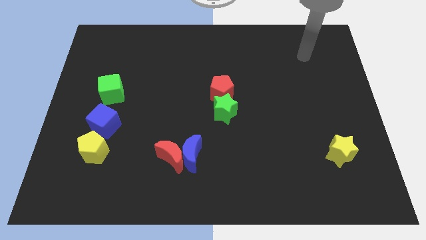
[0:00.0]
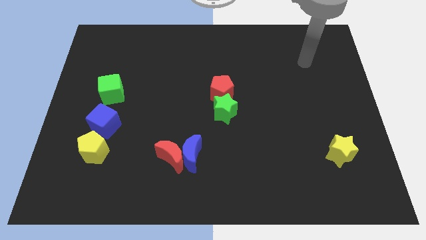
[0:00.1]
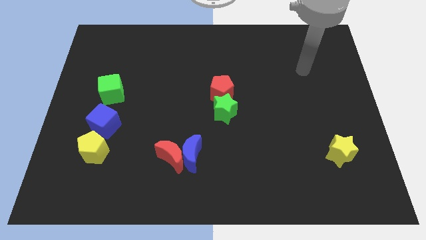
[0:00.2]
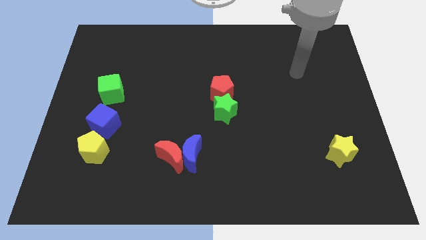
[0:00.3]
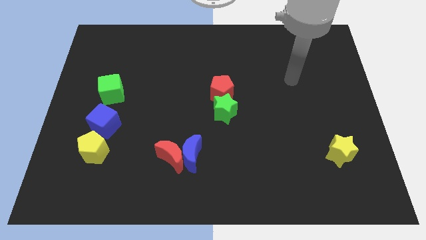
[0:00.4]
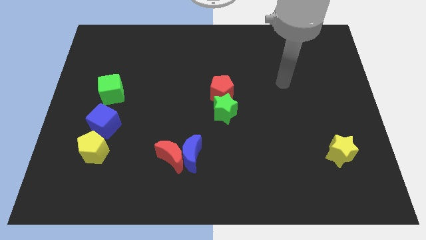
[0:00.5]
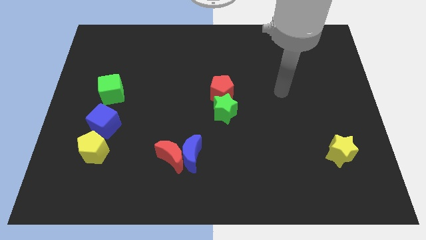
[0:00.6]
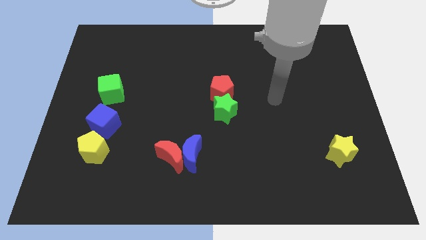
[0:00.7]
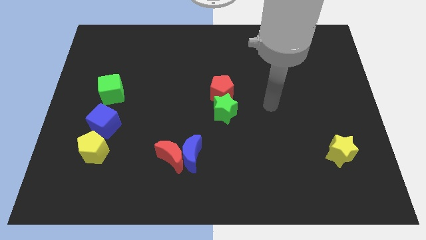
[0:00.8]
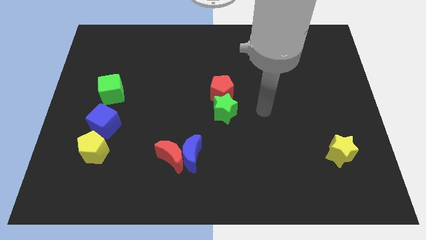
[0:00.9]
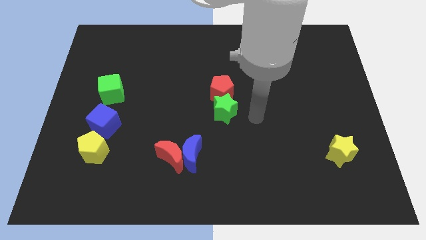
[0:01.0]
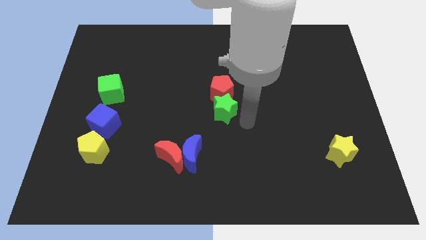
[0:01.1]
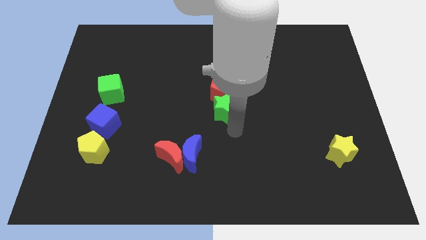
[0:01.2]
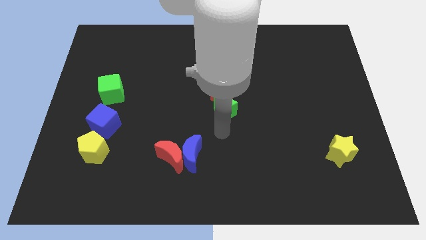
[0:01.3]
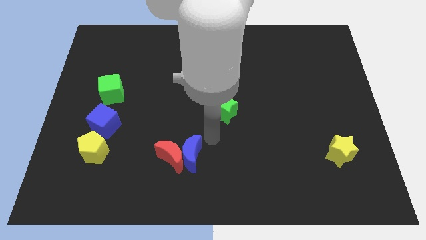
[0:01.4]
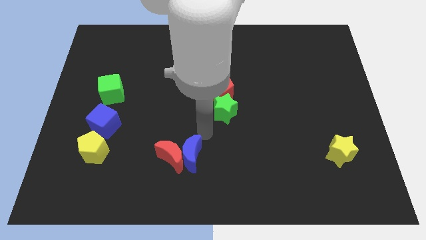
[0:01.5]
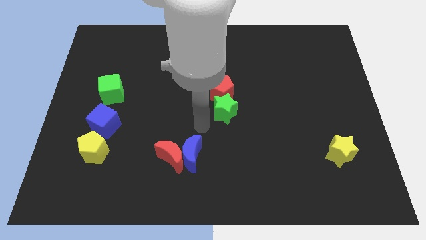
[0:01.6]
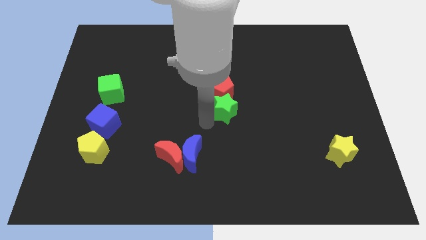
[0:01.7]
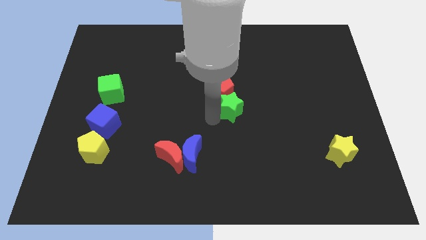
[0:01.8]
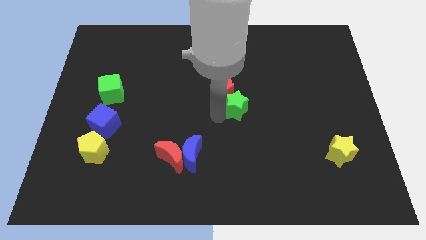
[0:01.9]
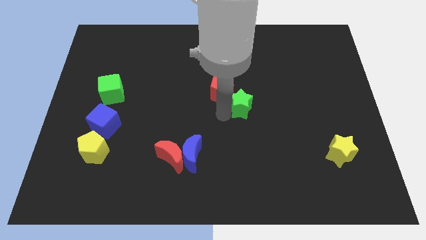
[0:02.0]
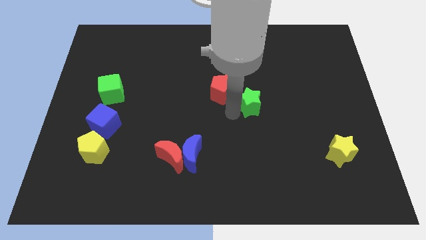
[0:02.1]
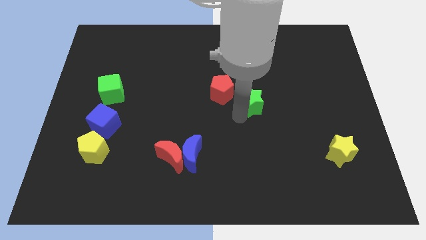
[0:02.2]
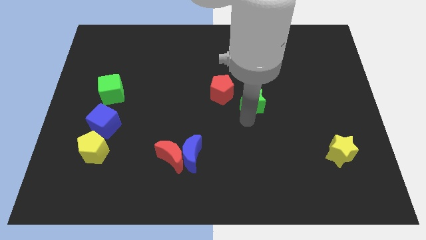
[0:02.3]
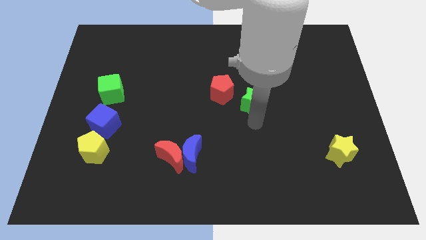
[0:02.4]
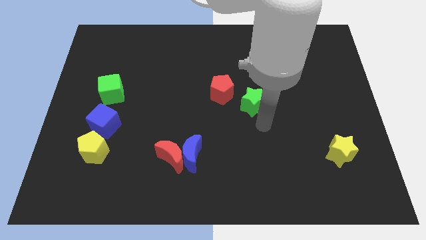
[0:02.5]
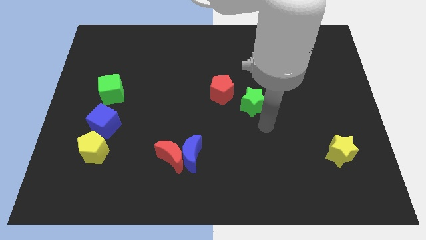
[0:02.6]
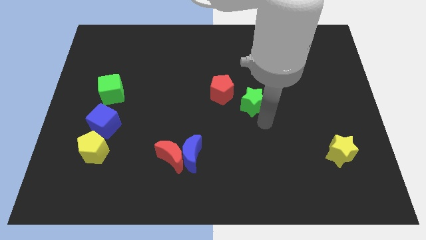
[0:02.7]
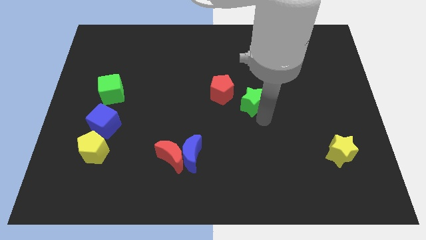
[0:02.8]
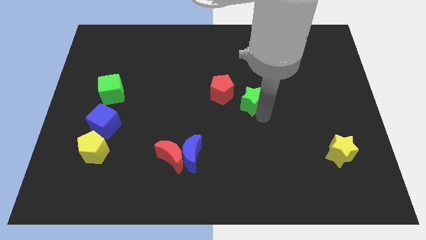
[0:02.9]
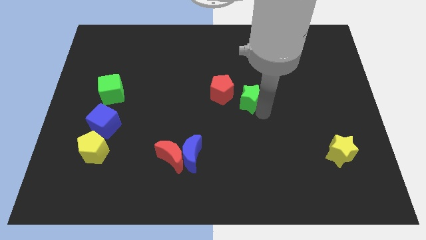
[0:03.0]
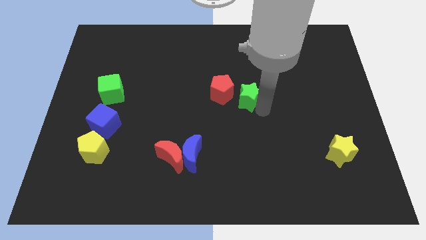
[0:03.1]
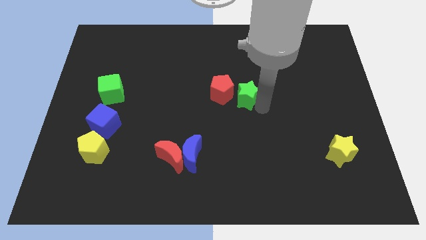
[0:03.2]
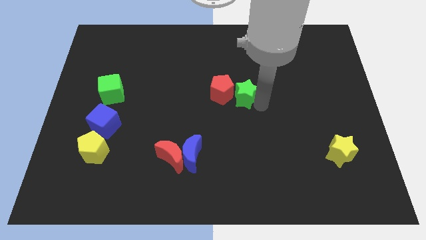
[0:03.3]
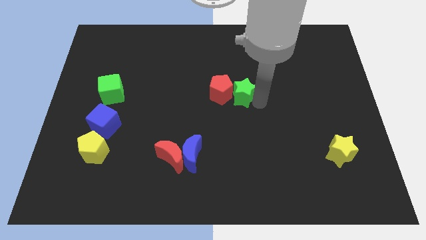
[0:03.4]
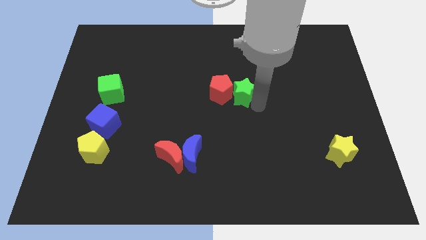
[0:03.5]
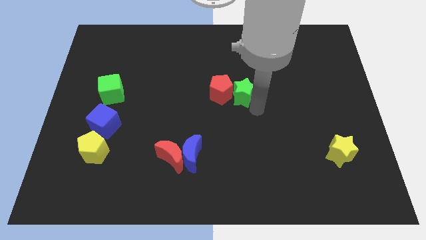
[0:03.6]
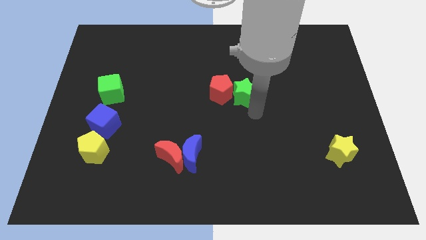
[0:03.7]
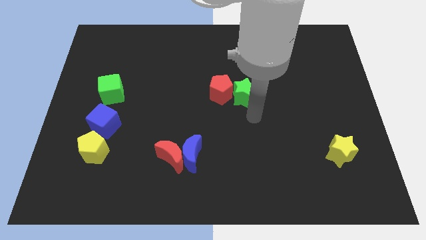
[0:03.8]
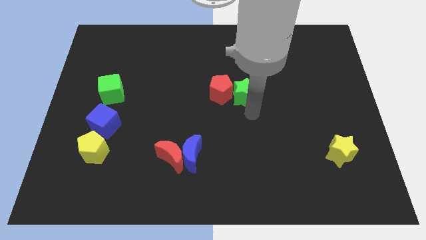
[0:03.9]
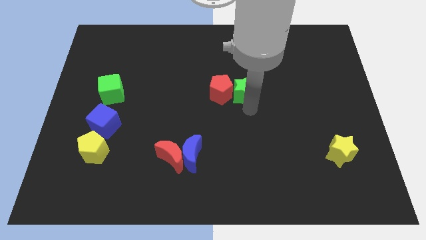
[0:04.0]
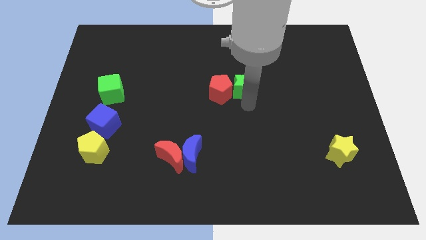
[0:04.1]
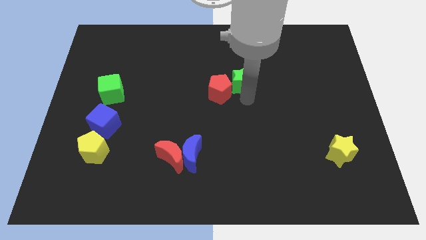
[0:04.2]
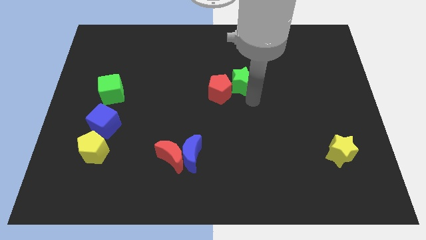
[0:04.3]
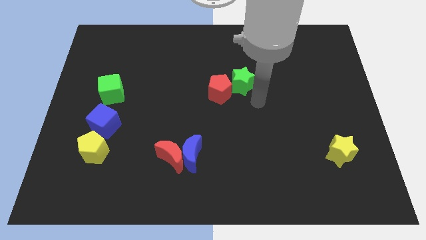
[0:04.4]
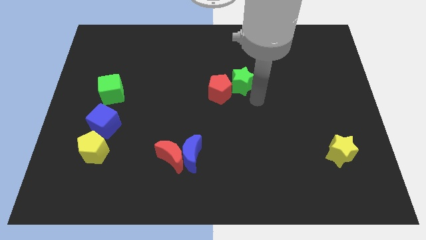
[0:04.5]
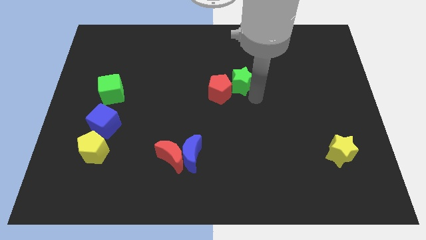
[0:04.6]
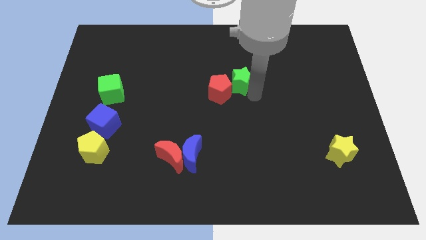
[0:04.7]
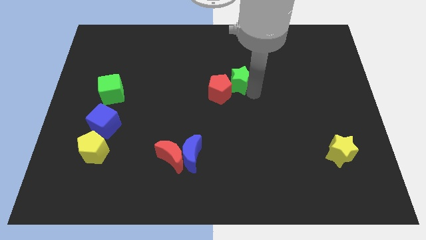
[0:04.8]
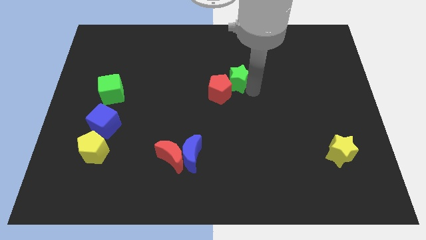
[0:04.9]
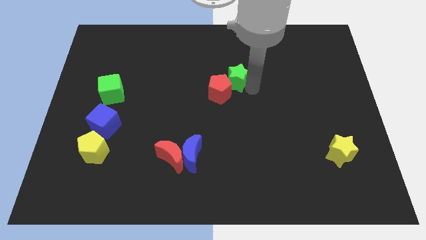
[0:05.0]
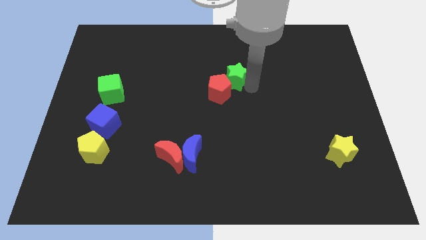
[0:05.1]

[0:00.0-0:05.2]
move the green star to the top side of the red pentagon

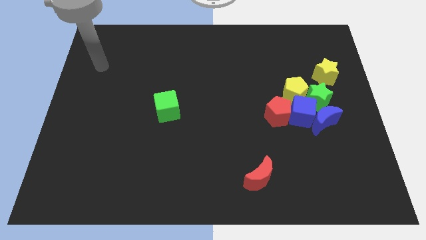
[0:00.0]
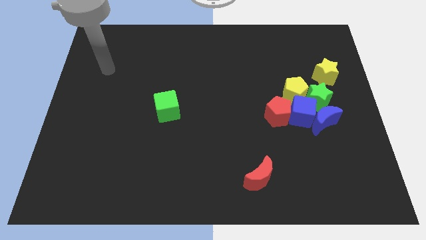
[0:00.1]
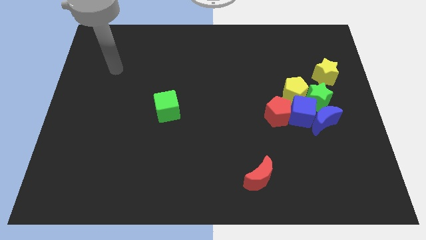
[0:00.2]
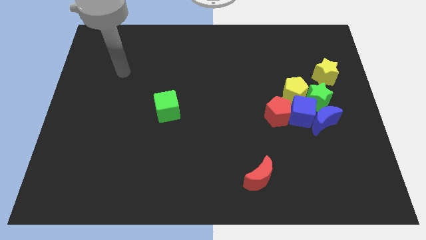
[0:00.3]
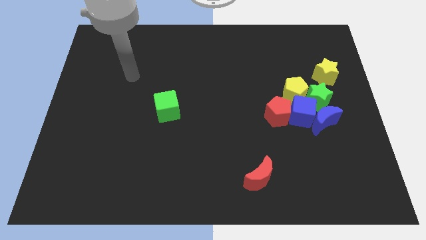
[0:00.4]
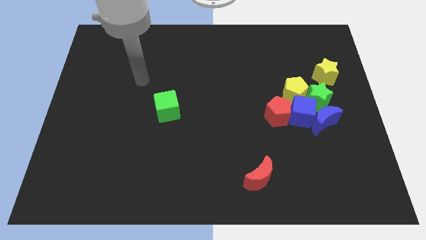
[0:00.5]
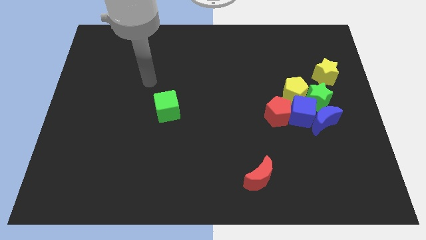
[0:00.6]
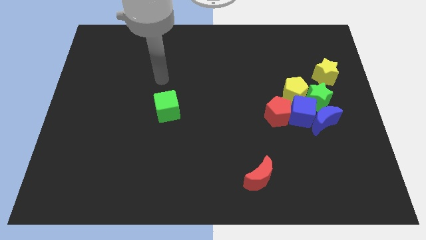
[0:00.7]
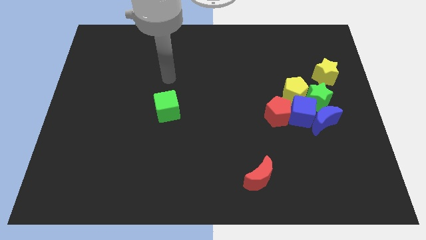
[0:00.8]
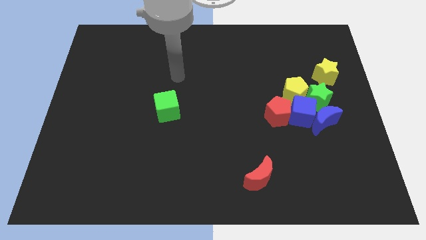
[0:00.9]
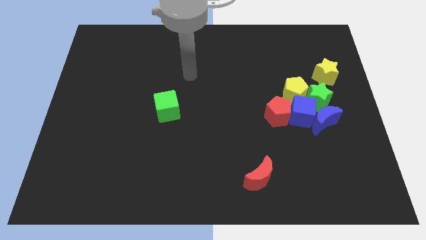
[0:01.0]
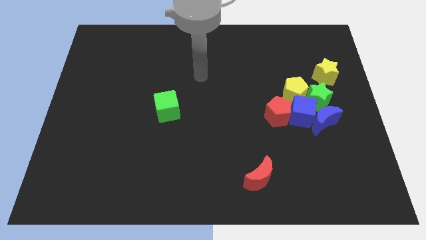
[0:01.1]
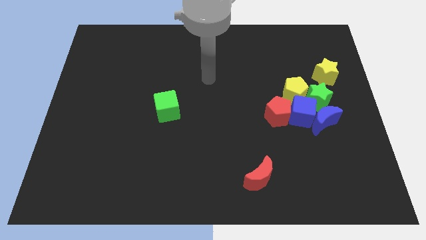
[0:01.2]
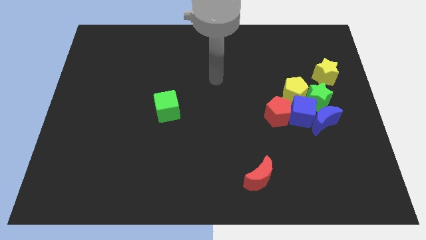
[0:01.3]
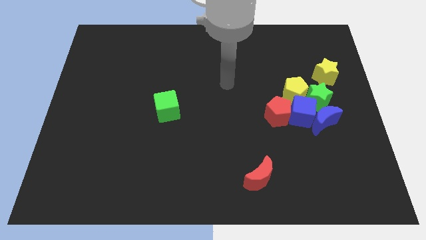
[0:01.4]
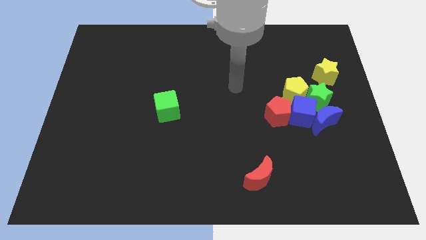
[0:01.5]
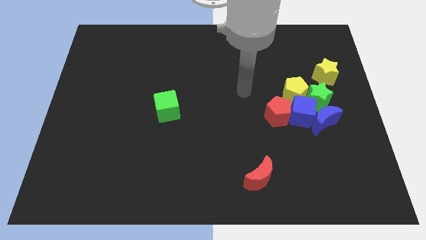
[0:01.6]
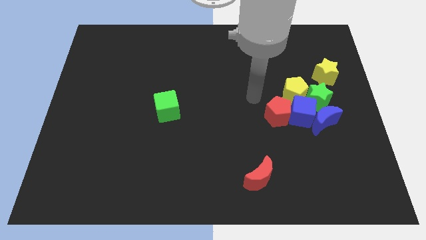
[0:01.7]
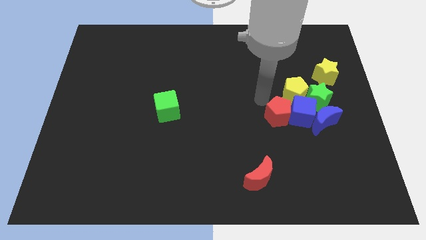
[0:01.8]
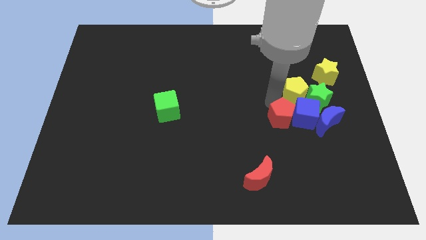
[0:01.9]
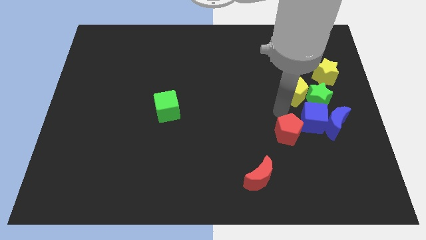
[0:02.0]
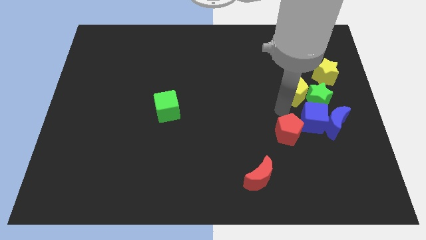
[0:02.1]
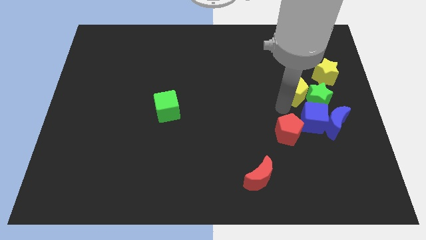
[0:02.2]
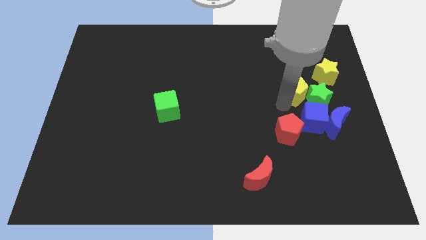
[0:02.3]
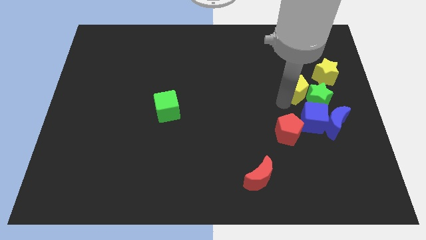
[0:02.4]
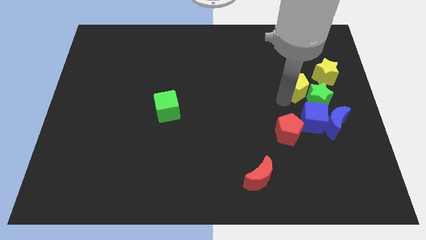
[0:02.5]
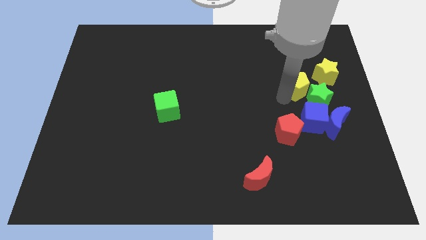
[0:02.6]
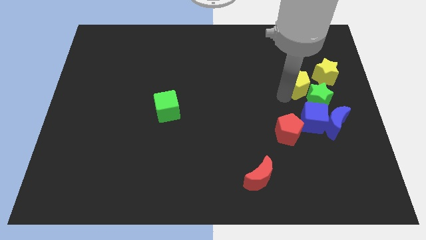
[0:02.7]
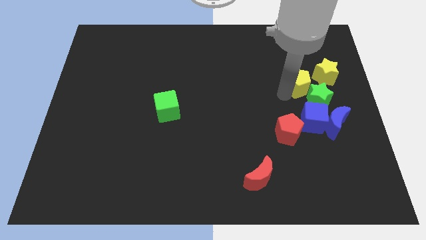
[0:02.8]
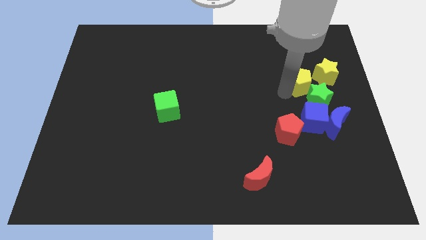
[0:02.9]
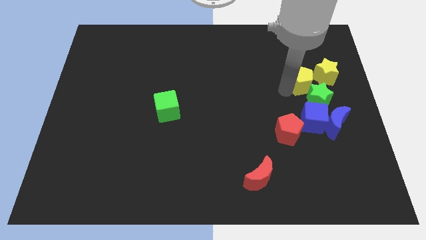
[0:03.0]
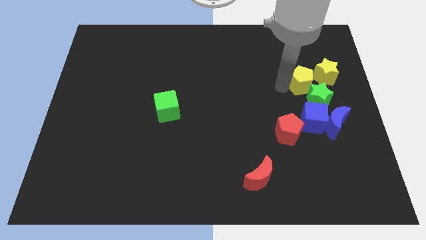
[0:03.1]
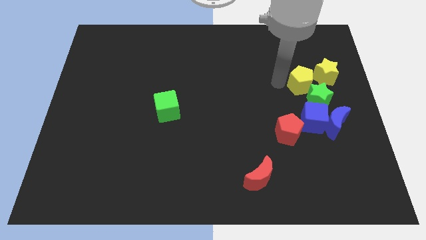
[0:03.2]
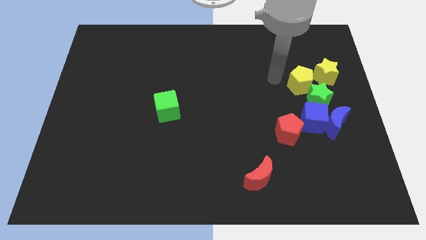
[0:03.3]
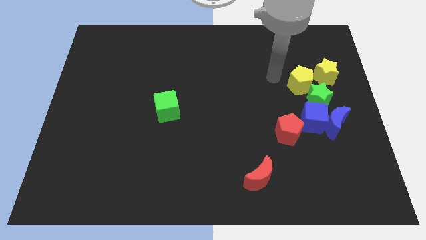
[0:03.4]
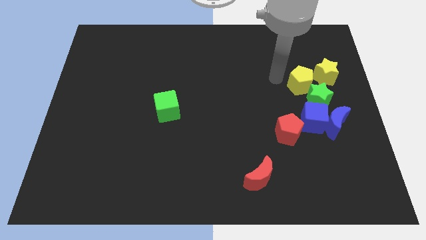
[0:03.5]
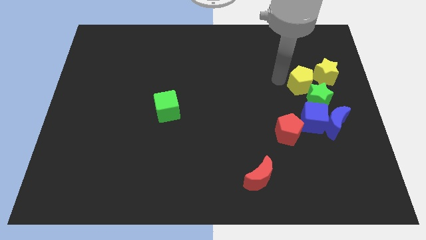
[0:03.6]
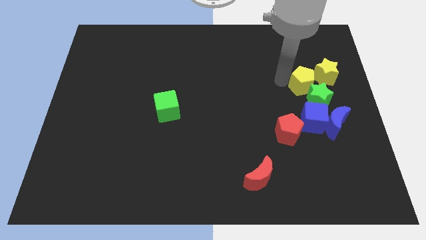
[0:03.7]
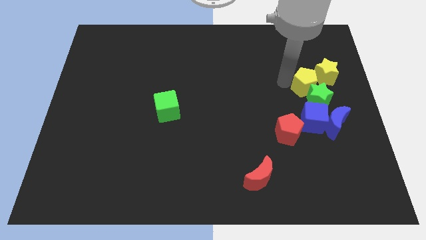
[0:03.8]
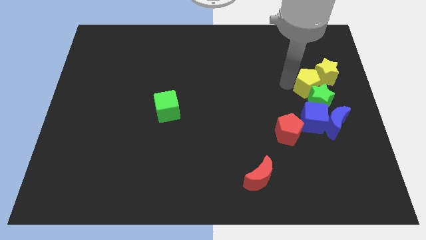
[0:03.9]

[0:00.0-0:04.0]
push the yellow pentagon above the blue moon
